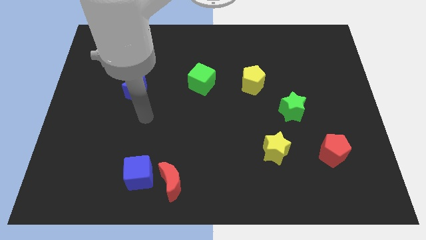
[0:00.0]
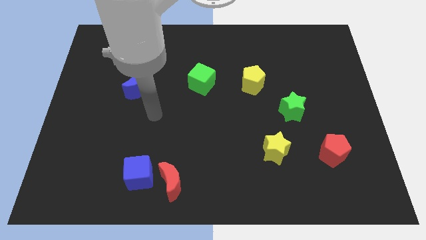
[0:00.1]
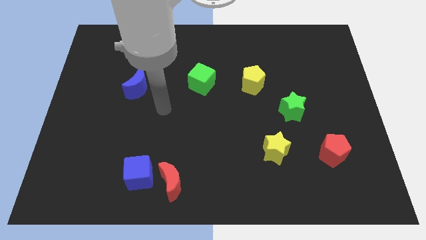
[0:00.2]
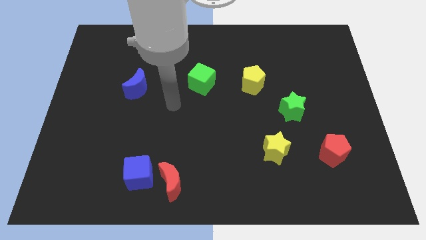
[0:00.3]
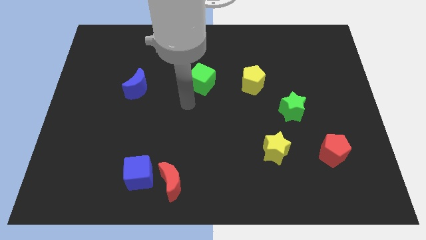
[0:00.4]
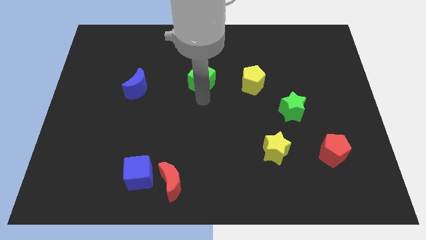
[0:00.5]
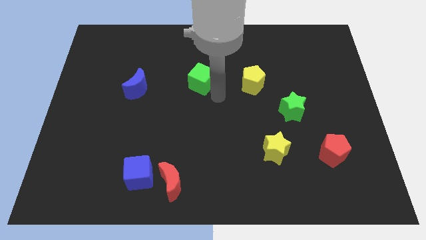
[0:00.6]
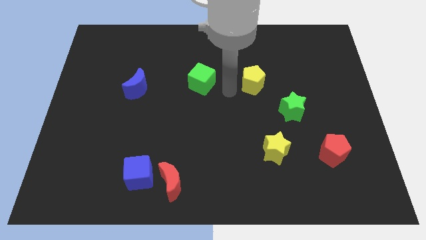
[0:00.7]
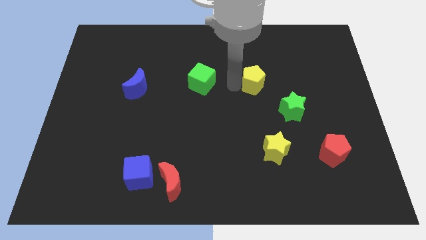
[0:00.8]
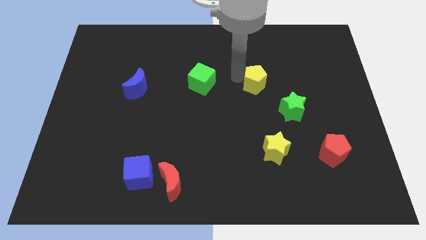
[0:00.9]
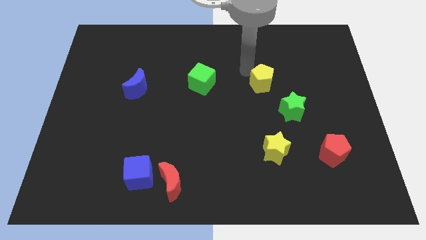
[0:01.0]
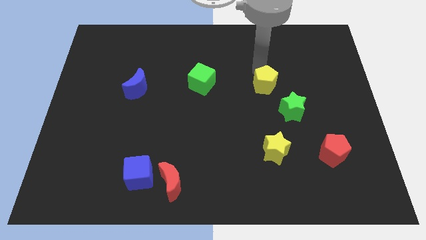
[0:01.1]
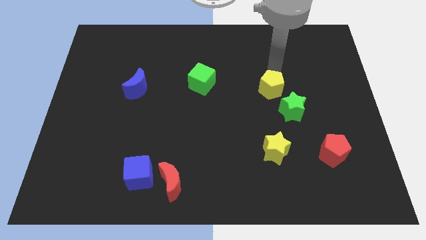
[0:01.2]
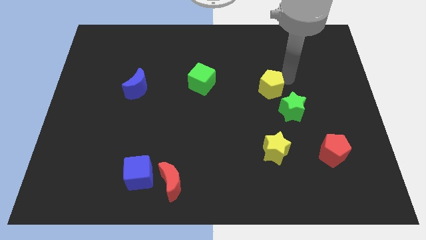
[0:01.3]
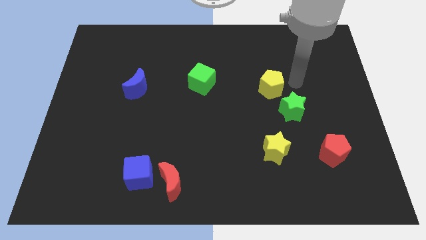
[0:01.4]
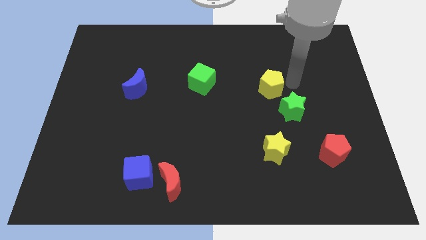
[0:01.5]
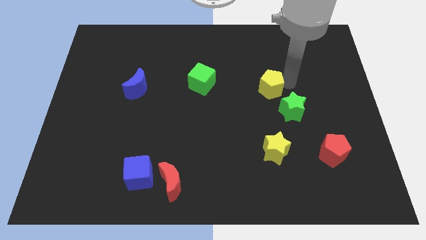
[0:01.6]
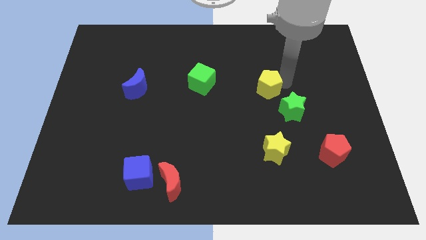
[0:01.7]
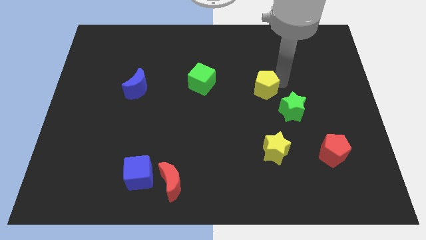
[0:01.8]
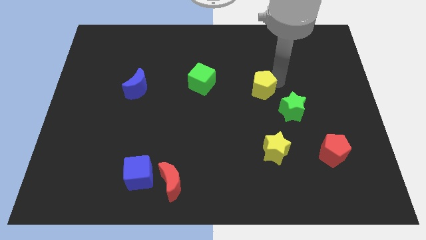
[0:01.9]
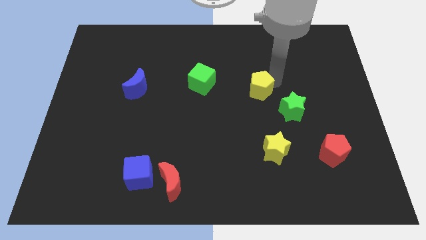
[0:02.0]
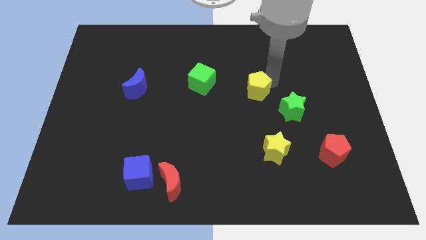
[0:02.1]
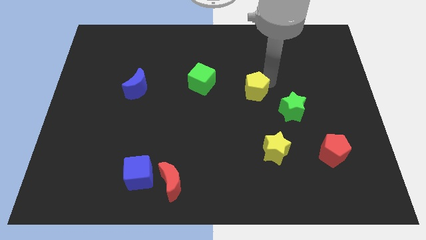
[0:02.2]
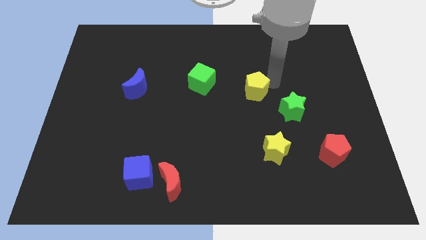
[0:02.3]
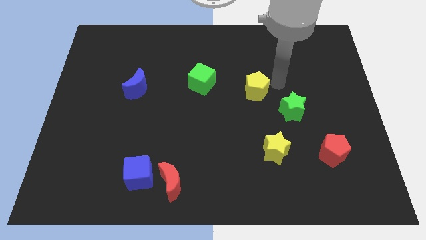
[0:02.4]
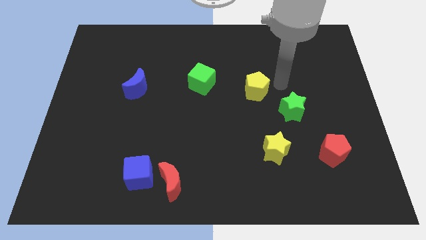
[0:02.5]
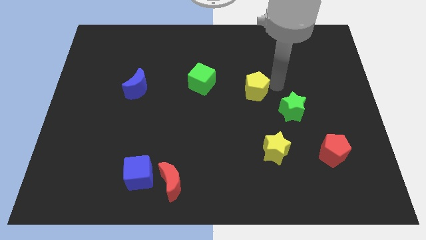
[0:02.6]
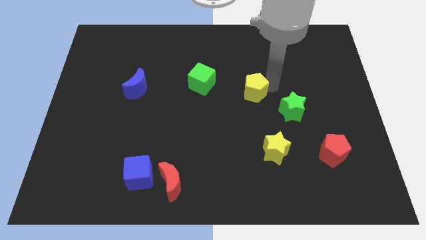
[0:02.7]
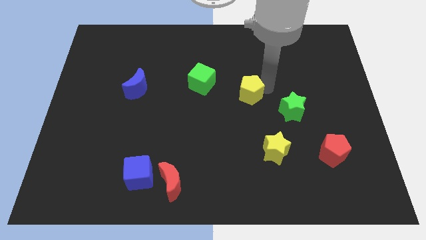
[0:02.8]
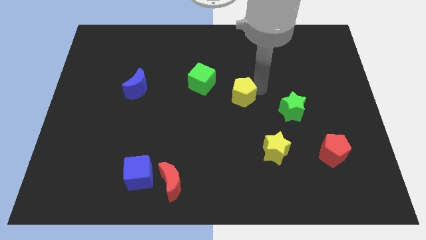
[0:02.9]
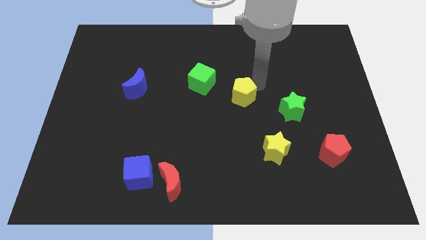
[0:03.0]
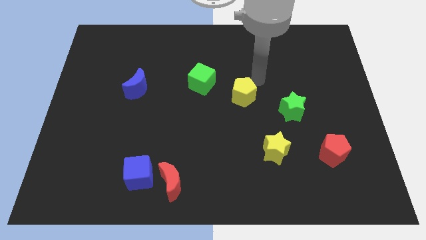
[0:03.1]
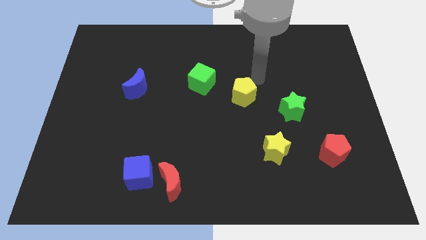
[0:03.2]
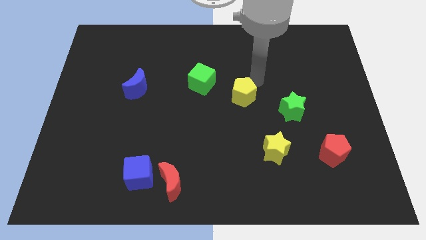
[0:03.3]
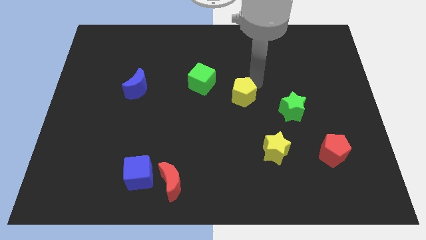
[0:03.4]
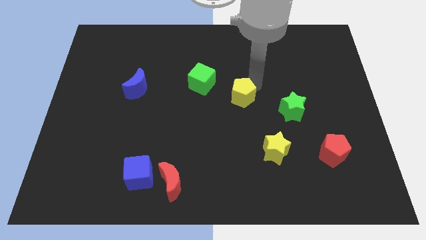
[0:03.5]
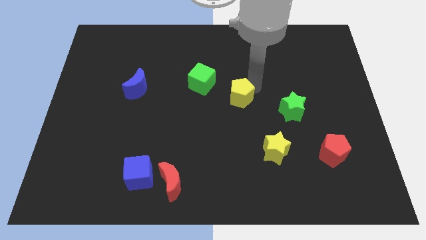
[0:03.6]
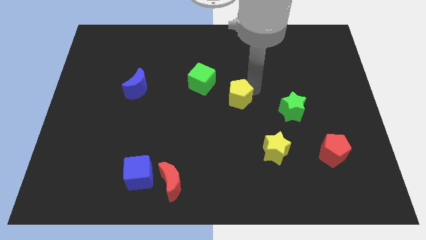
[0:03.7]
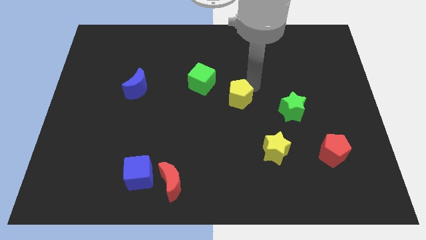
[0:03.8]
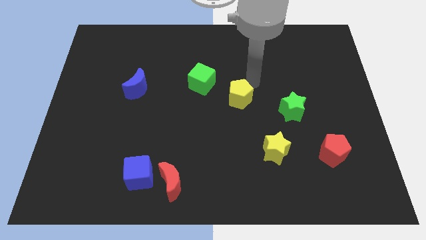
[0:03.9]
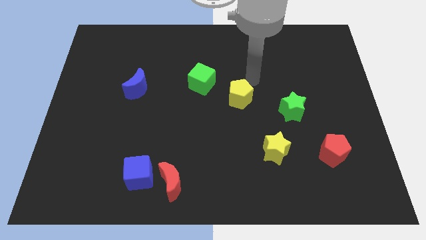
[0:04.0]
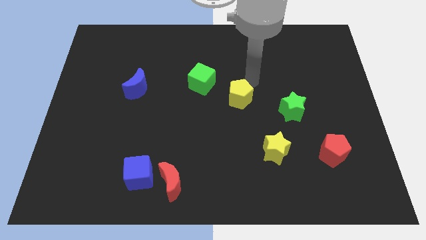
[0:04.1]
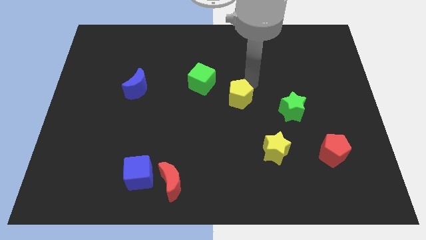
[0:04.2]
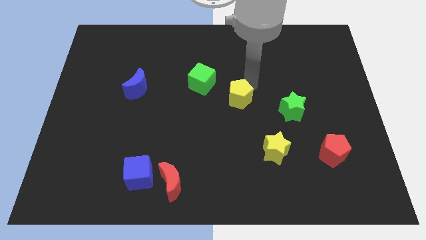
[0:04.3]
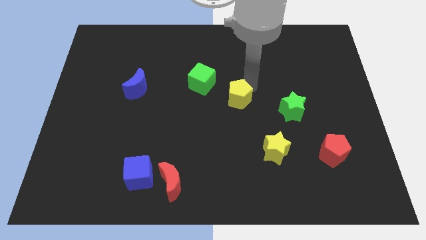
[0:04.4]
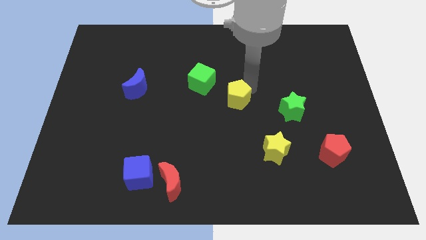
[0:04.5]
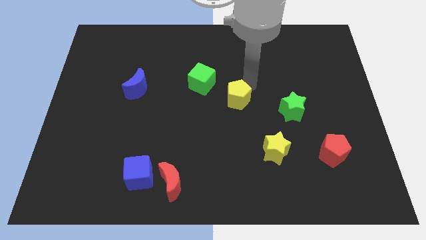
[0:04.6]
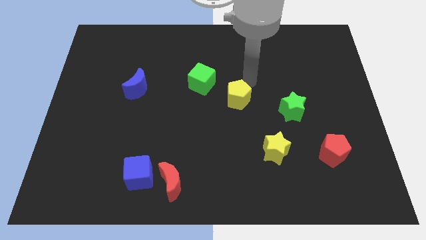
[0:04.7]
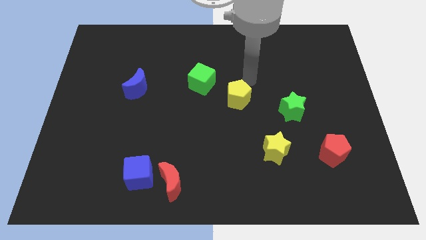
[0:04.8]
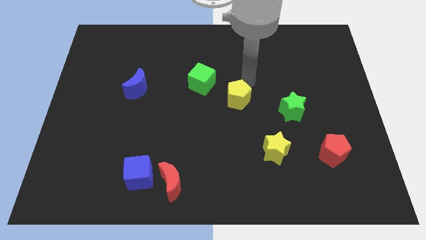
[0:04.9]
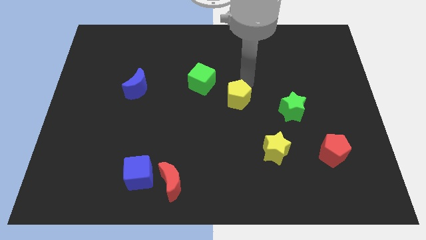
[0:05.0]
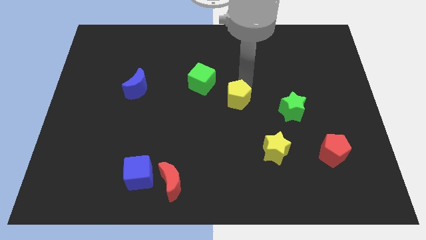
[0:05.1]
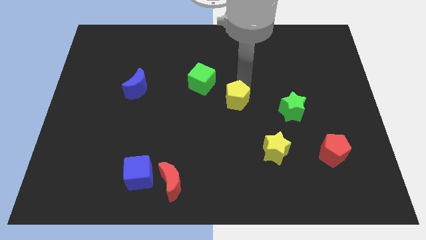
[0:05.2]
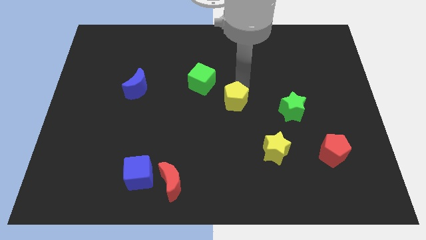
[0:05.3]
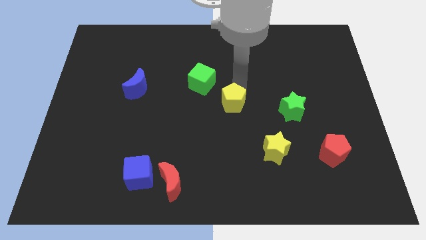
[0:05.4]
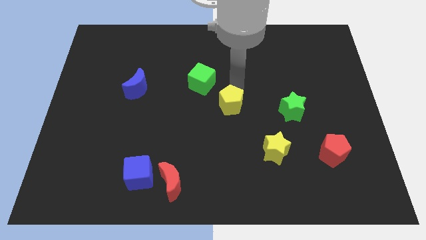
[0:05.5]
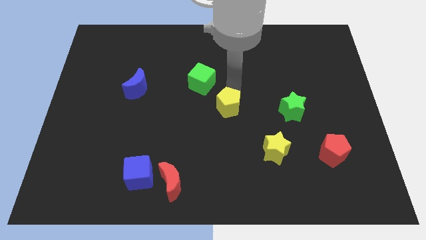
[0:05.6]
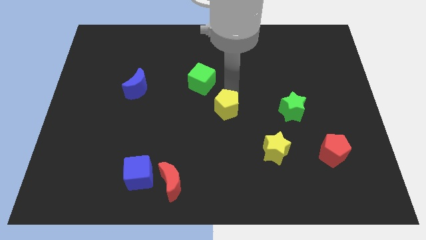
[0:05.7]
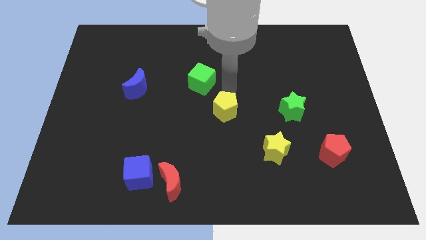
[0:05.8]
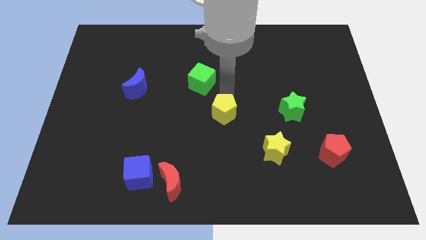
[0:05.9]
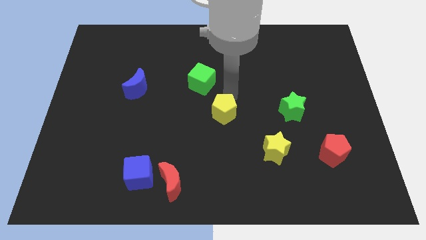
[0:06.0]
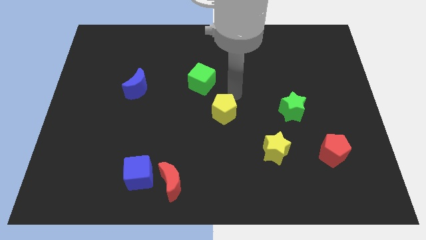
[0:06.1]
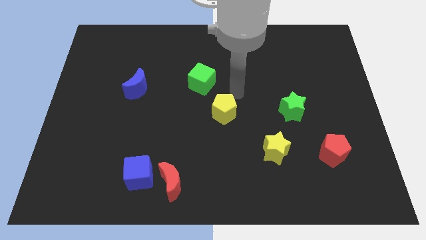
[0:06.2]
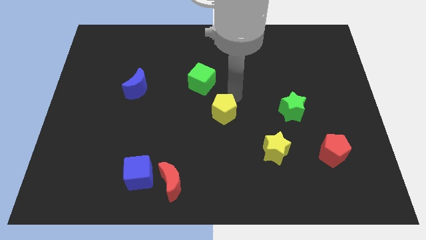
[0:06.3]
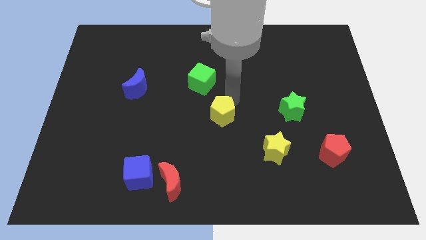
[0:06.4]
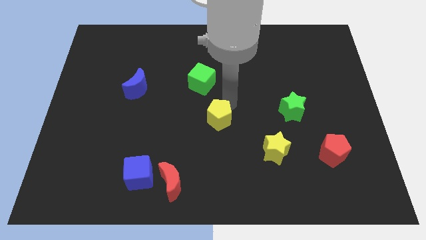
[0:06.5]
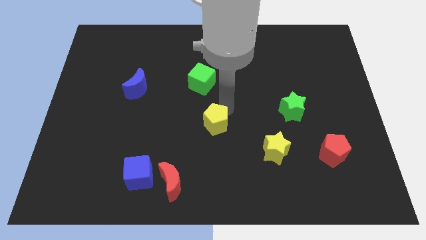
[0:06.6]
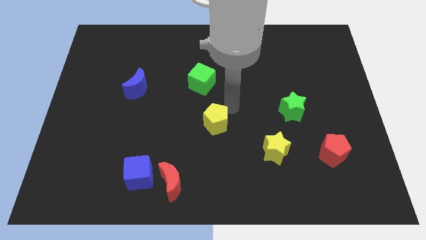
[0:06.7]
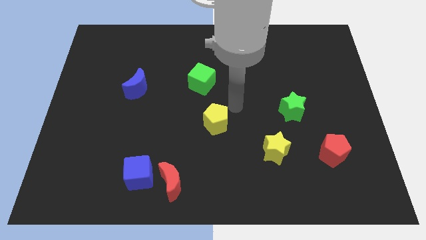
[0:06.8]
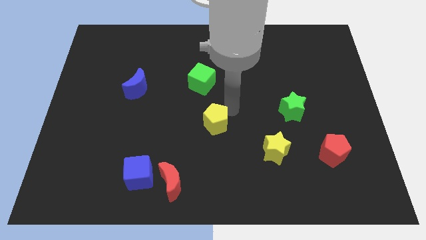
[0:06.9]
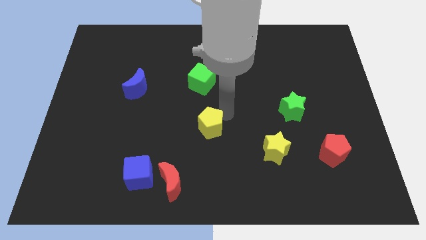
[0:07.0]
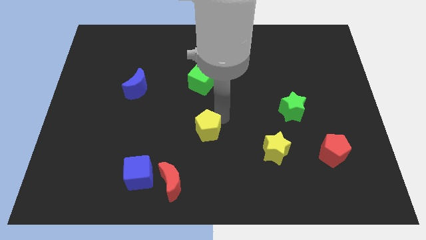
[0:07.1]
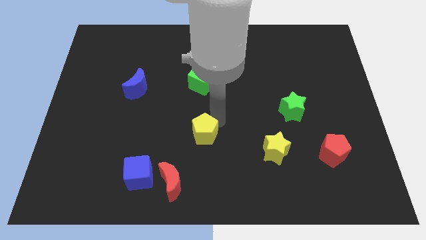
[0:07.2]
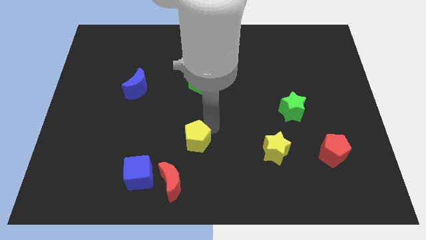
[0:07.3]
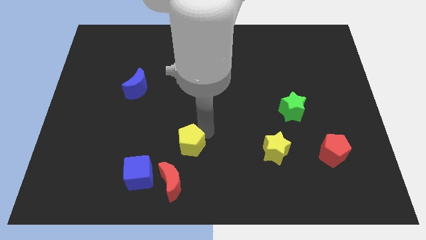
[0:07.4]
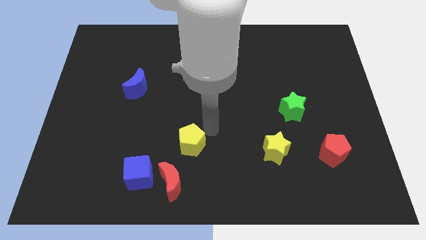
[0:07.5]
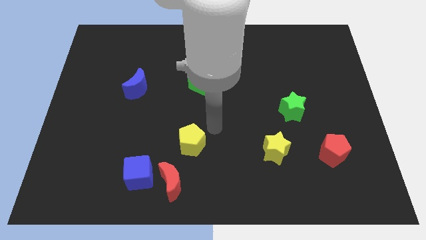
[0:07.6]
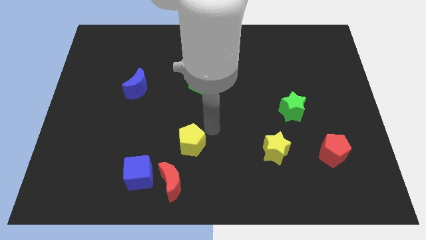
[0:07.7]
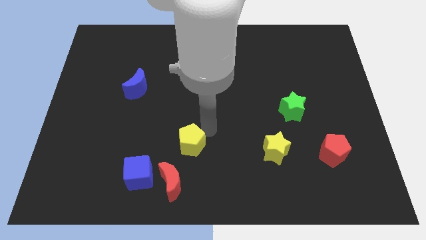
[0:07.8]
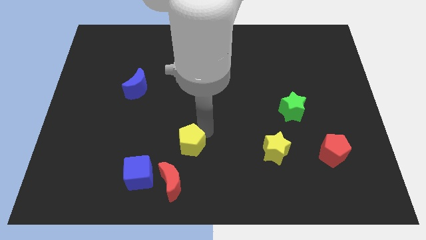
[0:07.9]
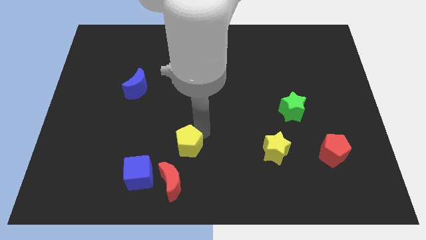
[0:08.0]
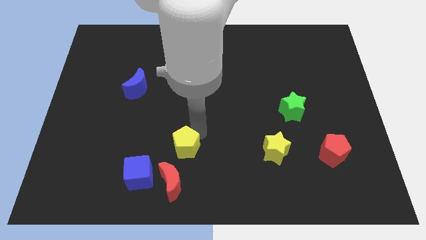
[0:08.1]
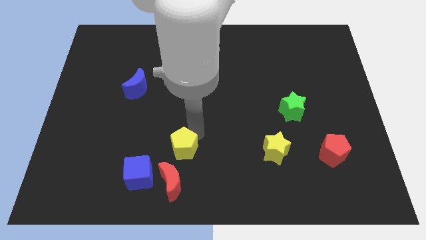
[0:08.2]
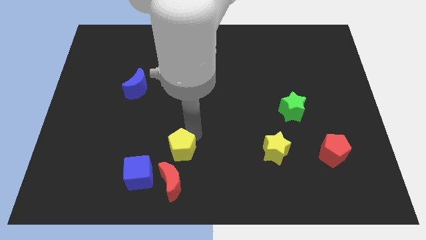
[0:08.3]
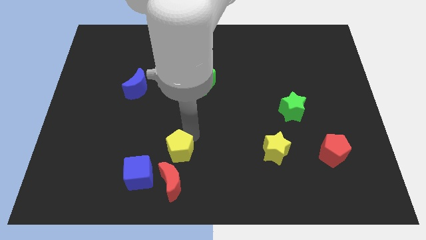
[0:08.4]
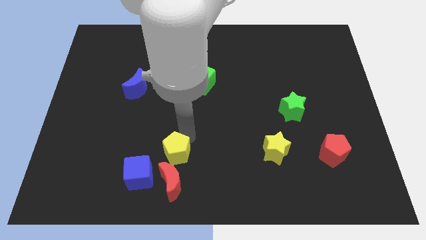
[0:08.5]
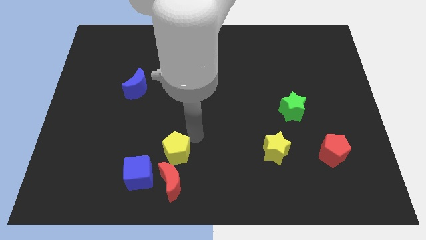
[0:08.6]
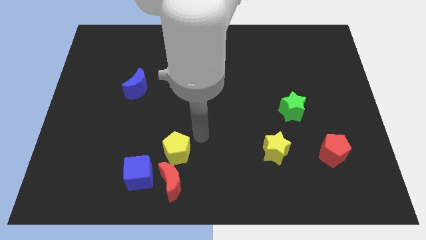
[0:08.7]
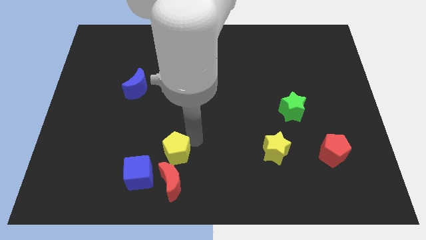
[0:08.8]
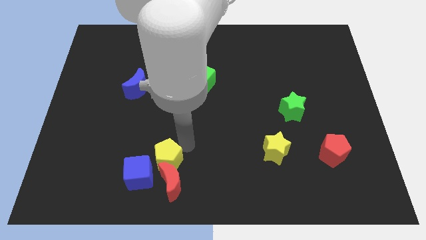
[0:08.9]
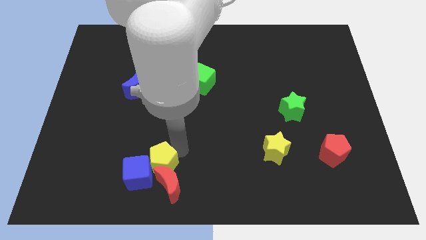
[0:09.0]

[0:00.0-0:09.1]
put the yellow pentagon to the blue cube
